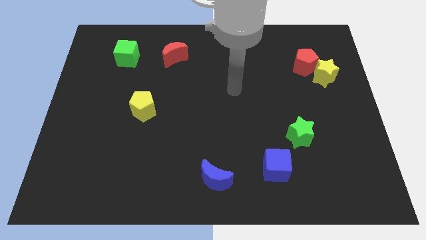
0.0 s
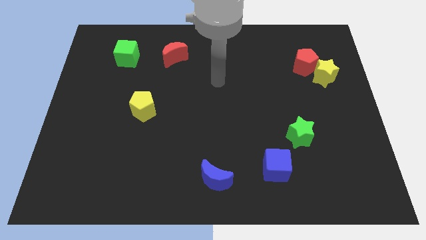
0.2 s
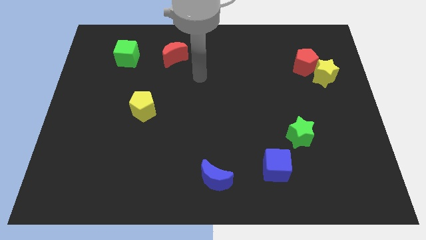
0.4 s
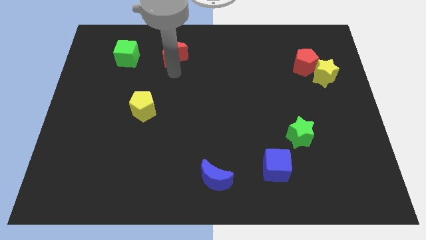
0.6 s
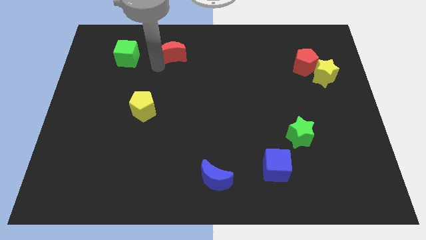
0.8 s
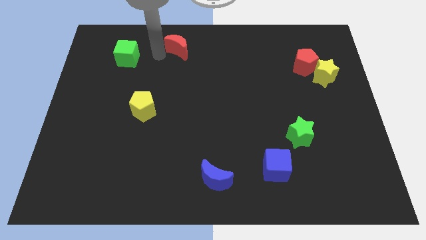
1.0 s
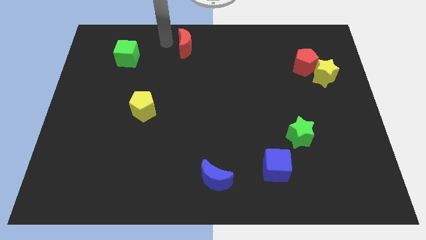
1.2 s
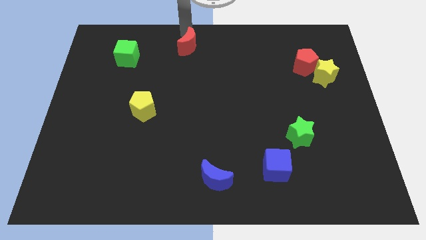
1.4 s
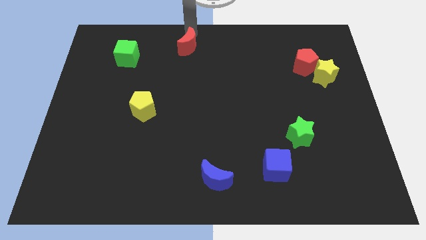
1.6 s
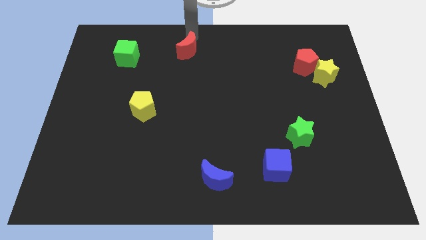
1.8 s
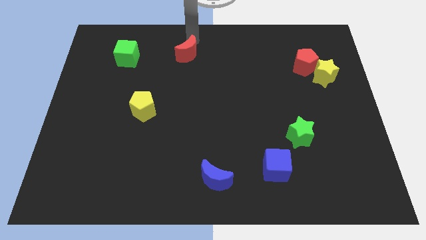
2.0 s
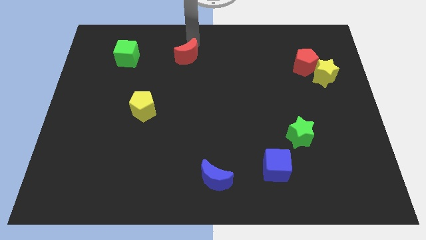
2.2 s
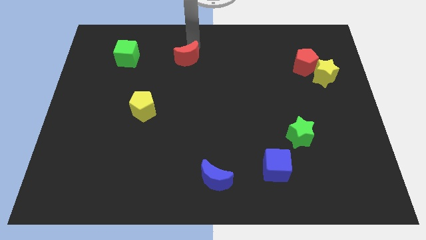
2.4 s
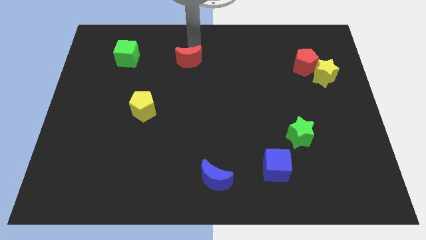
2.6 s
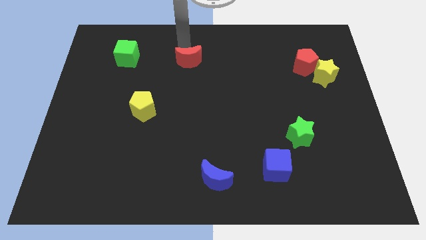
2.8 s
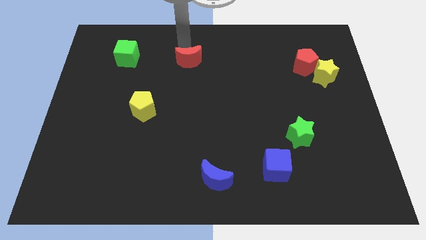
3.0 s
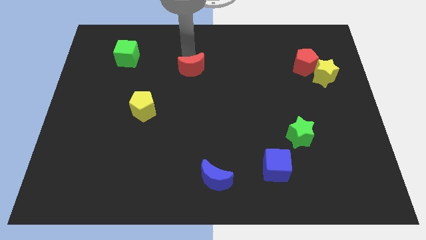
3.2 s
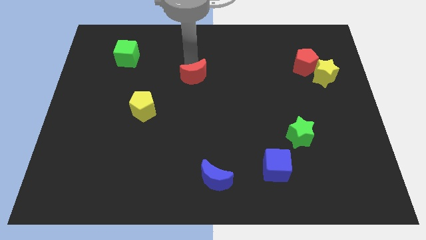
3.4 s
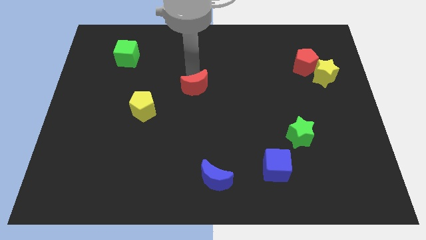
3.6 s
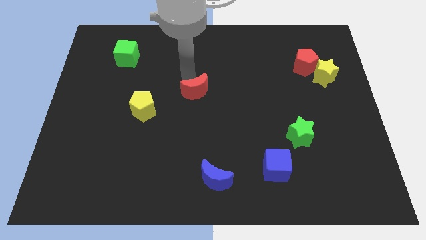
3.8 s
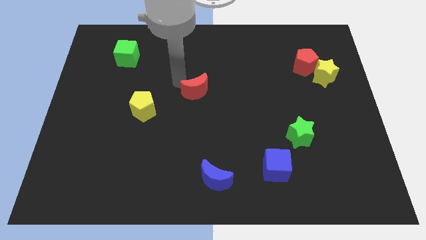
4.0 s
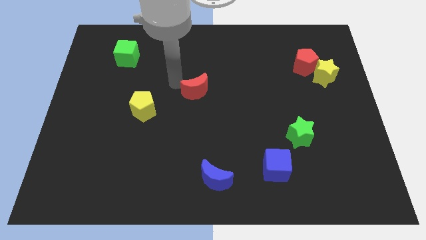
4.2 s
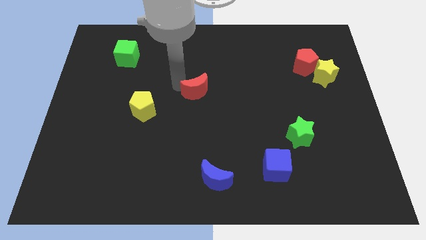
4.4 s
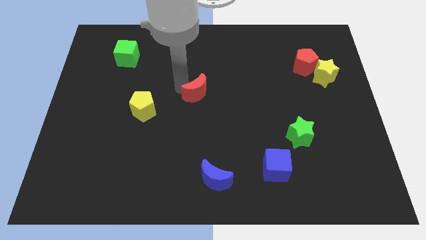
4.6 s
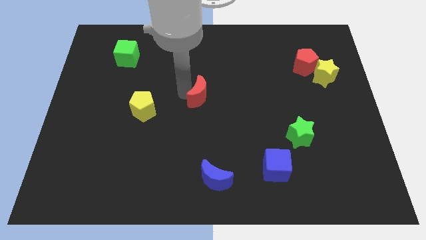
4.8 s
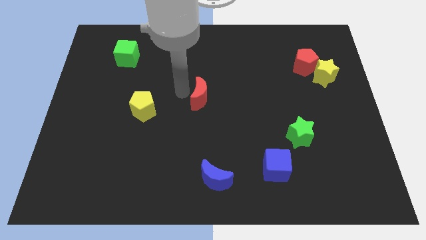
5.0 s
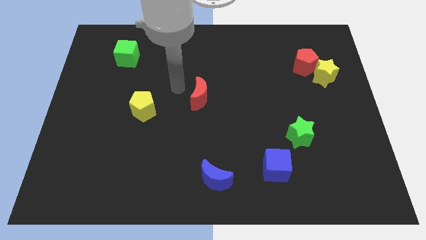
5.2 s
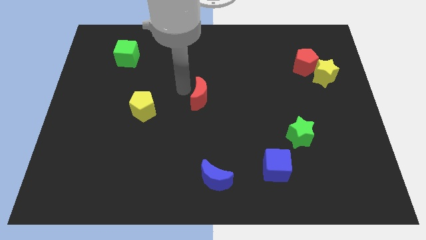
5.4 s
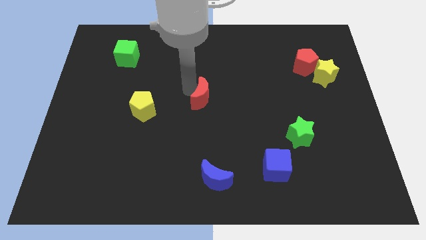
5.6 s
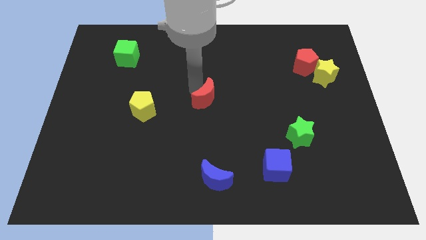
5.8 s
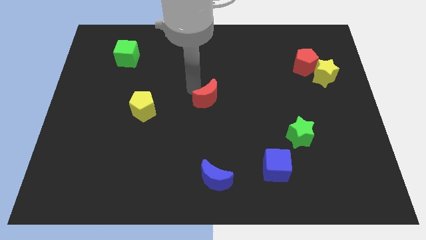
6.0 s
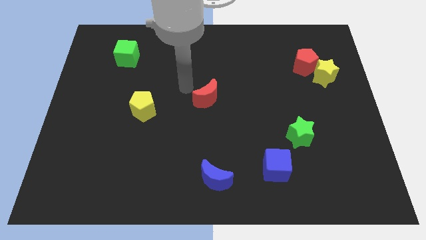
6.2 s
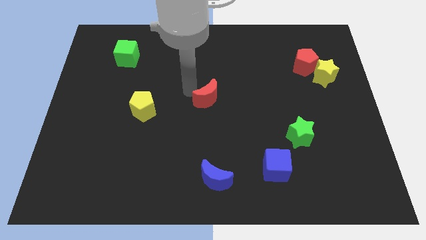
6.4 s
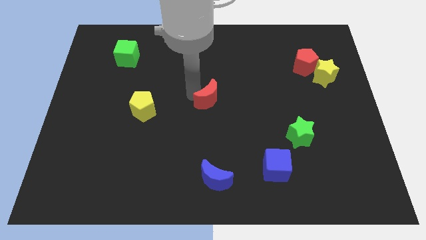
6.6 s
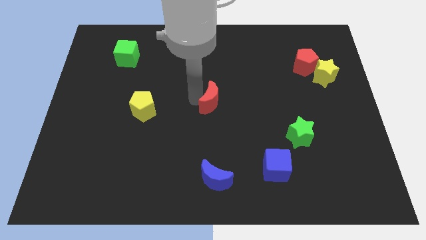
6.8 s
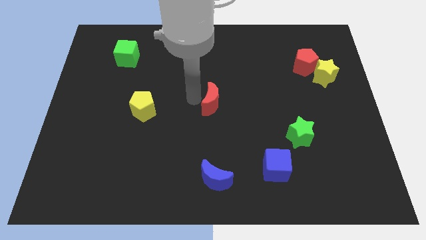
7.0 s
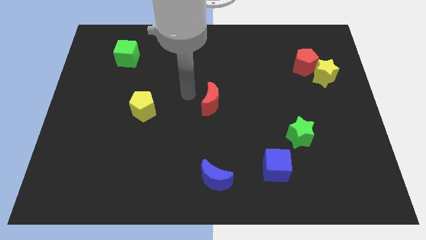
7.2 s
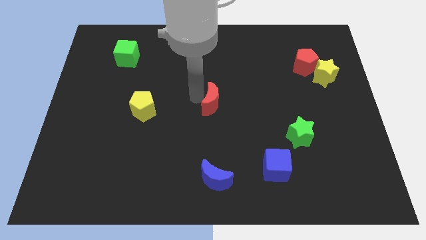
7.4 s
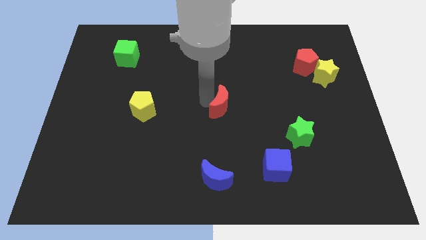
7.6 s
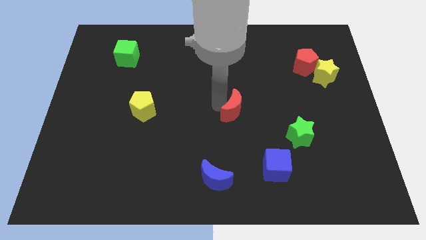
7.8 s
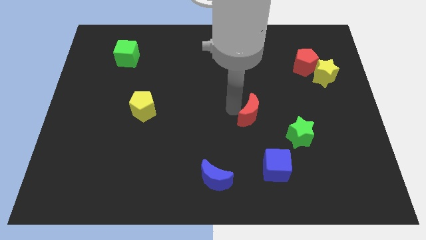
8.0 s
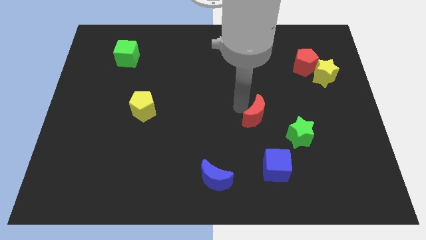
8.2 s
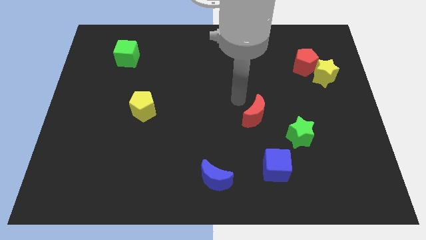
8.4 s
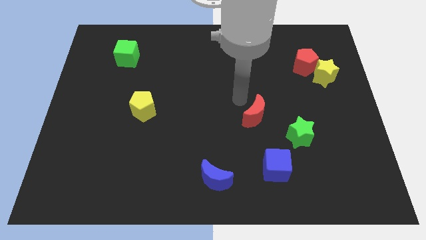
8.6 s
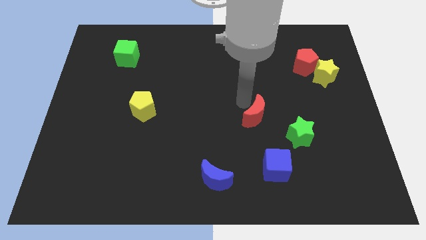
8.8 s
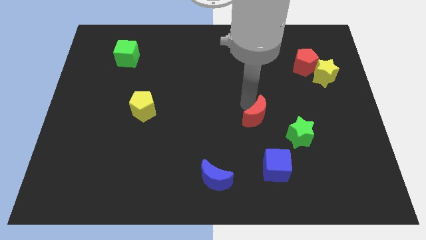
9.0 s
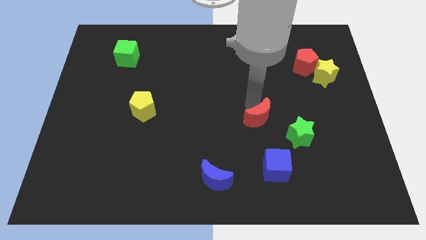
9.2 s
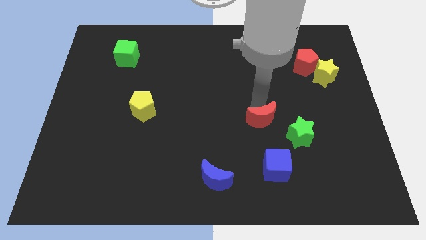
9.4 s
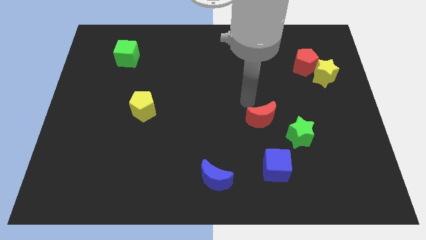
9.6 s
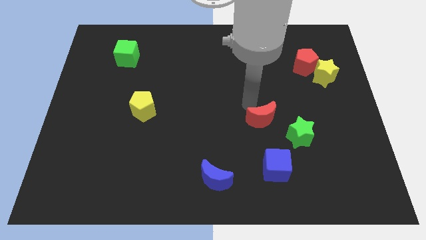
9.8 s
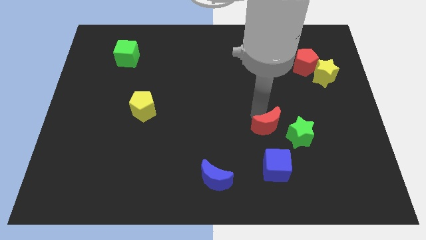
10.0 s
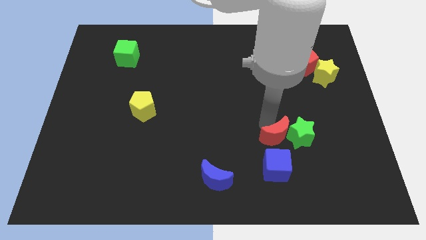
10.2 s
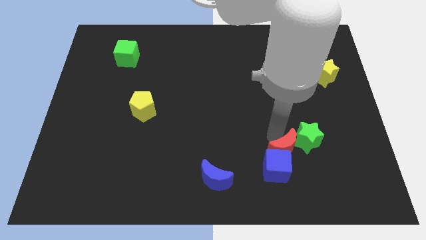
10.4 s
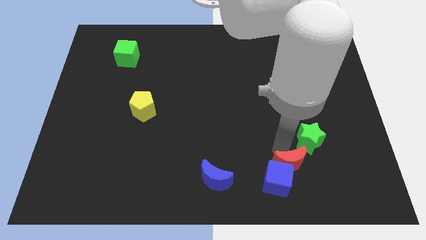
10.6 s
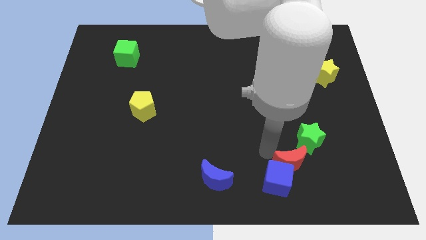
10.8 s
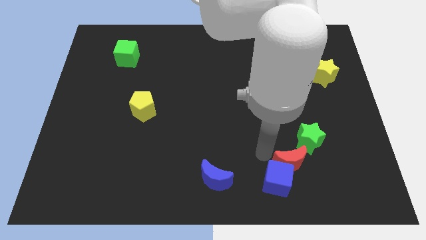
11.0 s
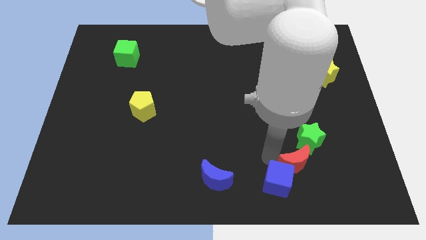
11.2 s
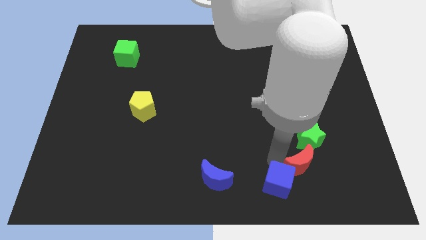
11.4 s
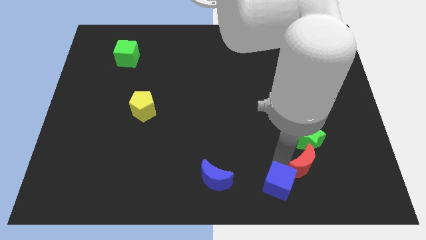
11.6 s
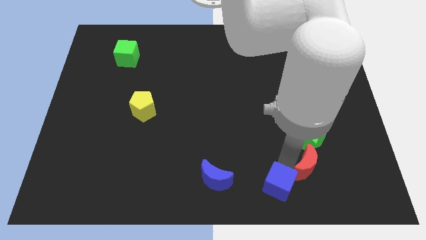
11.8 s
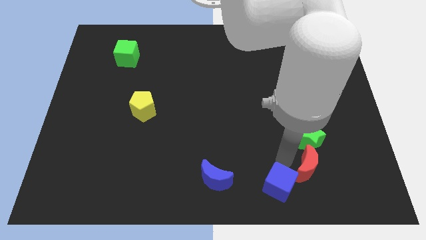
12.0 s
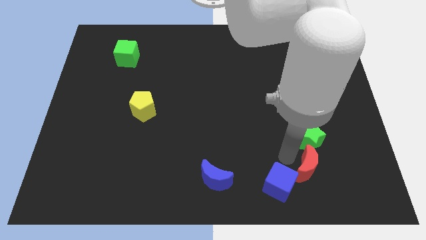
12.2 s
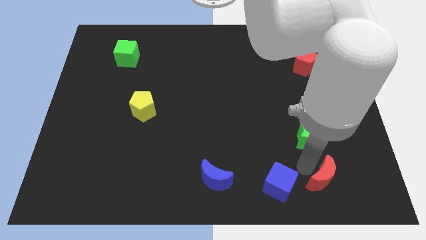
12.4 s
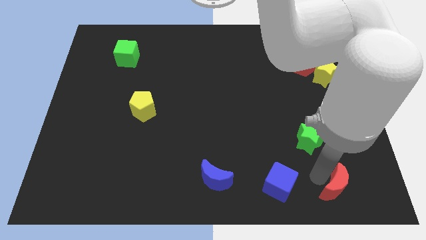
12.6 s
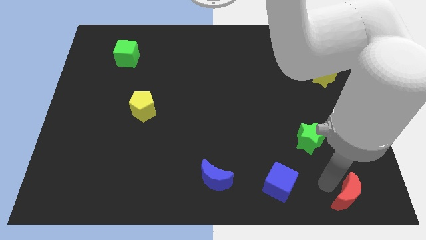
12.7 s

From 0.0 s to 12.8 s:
put the red moon to the lower right corner
